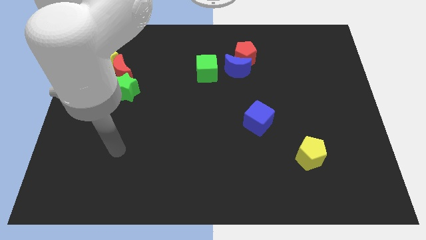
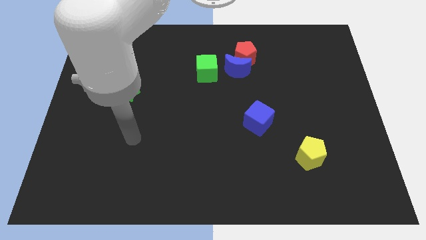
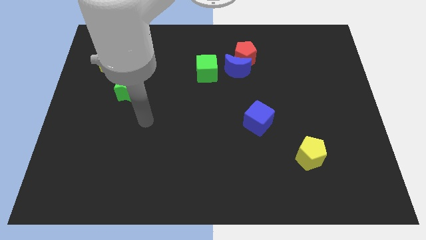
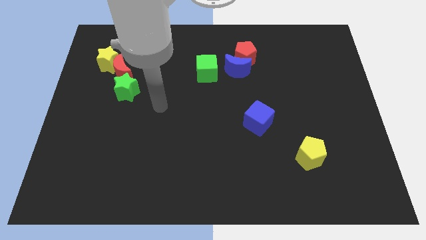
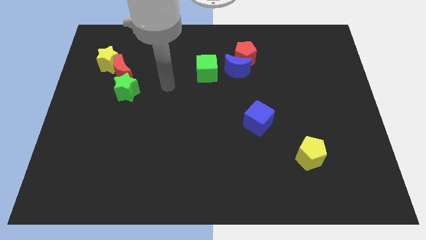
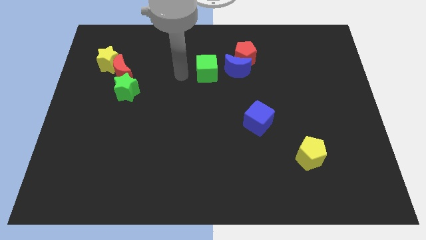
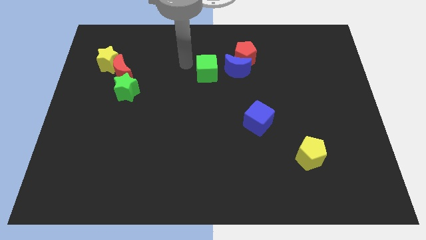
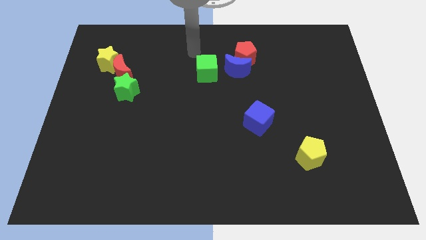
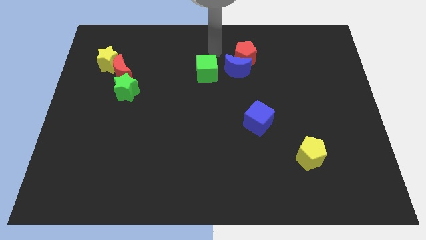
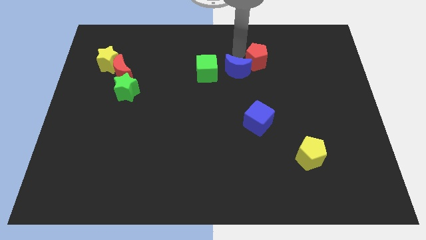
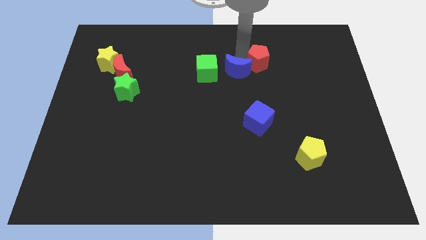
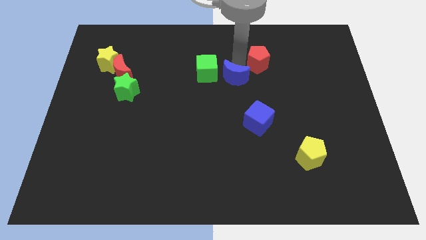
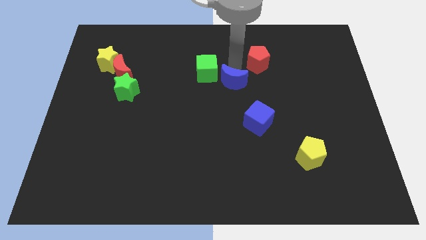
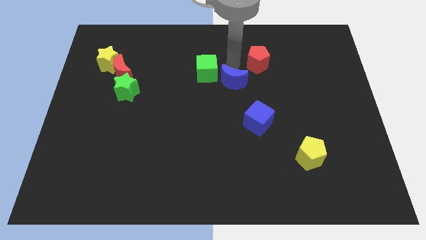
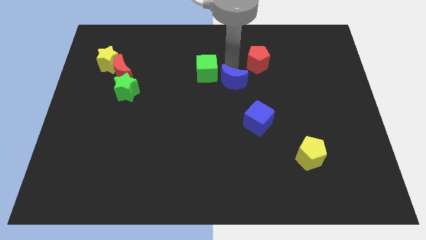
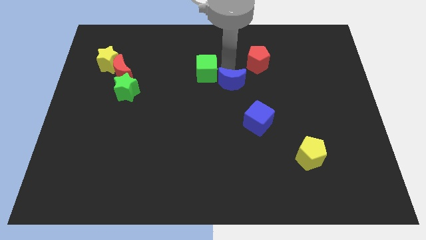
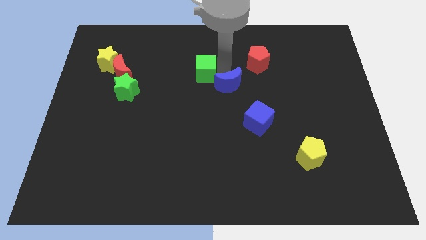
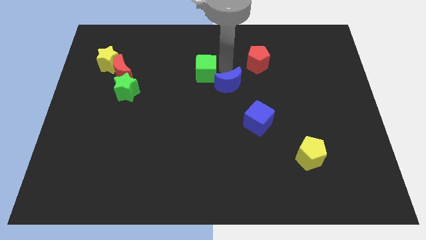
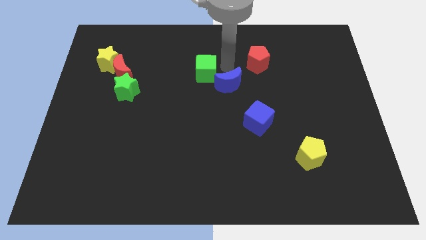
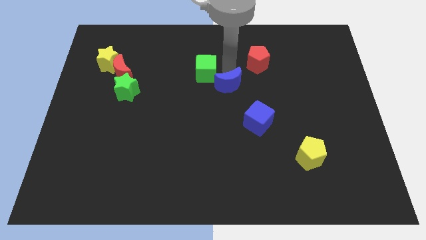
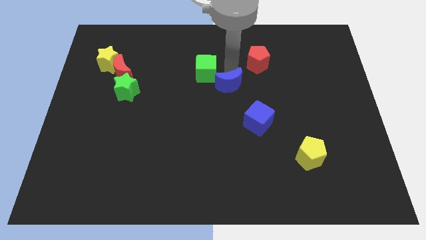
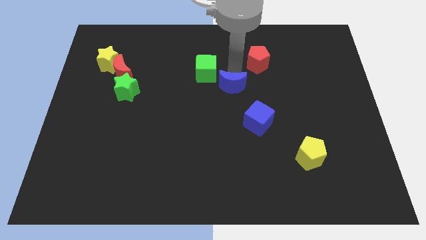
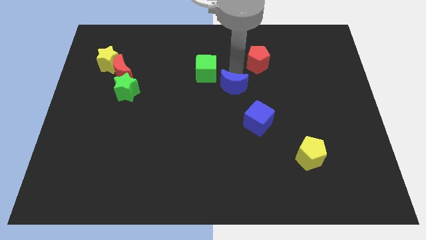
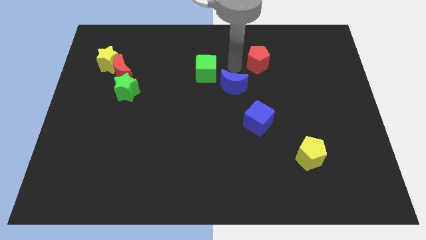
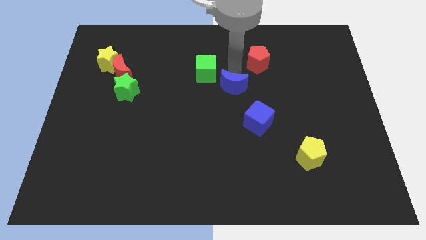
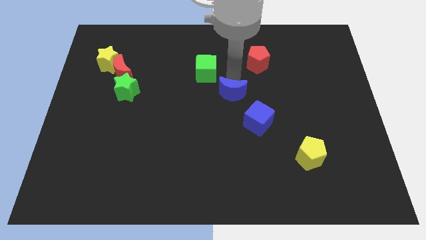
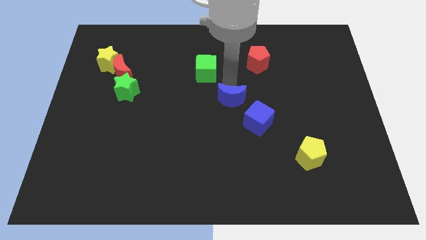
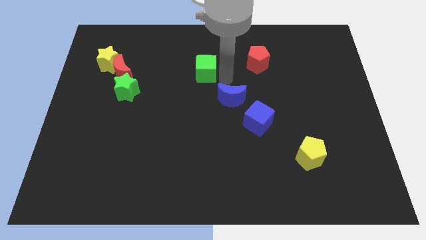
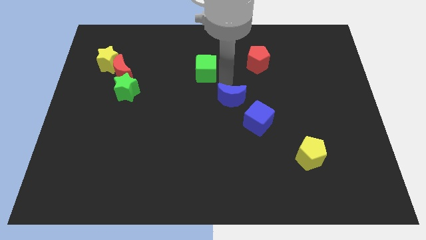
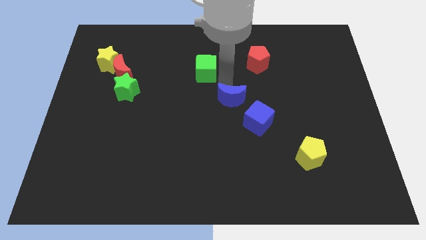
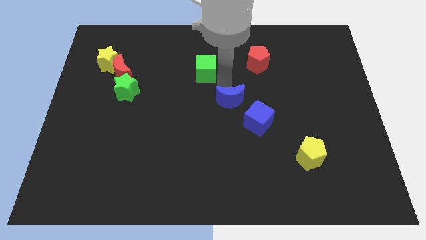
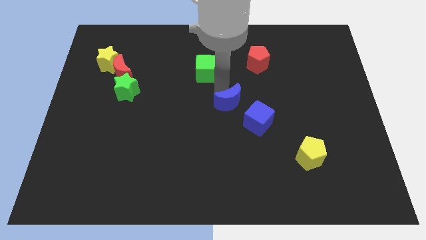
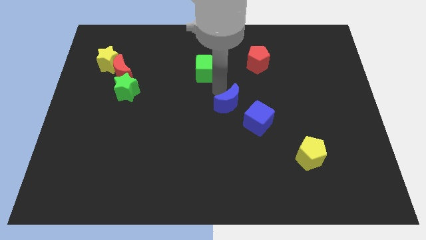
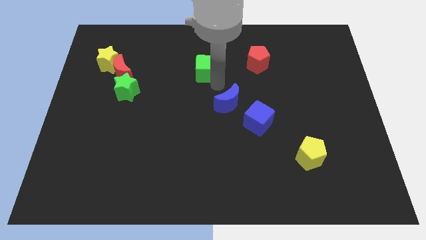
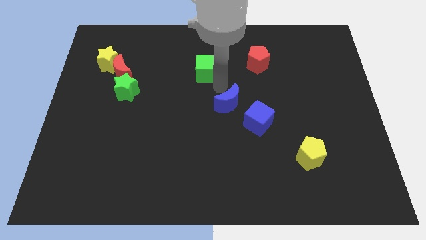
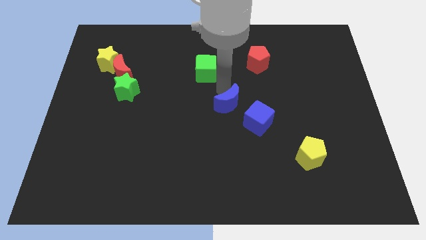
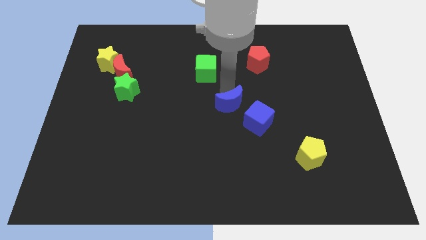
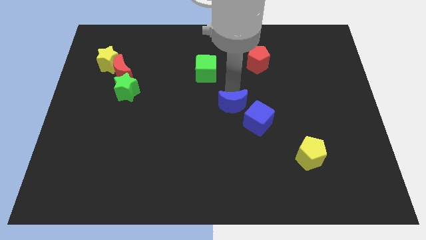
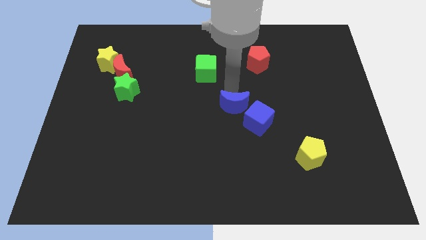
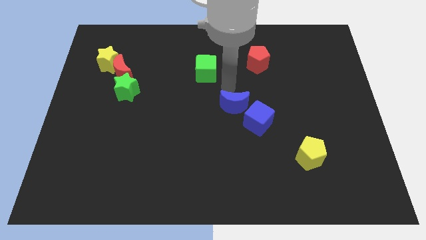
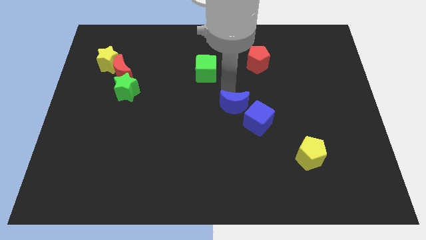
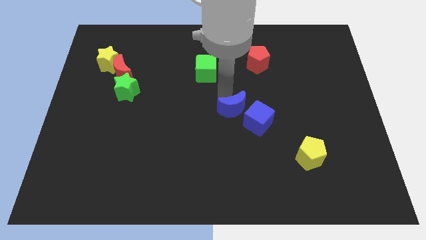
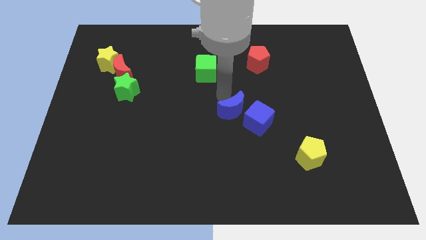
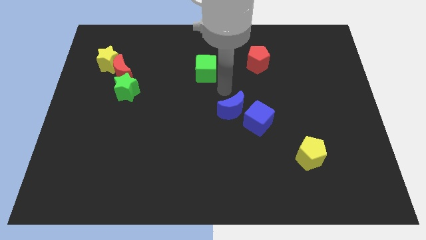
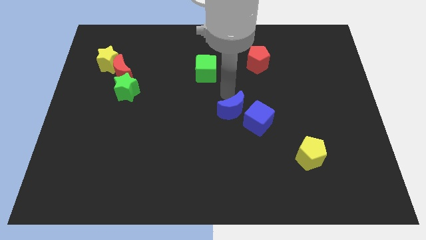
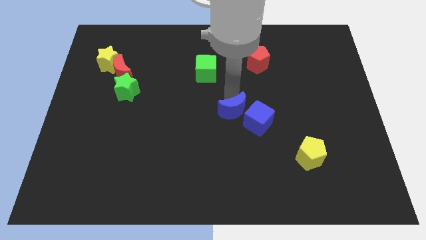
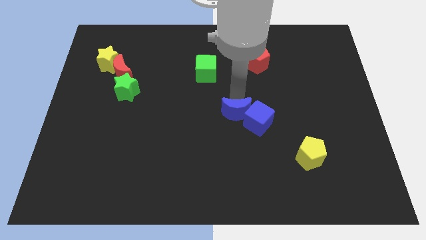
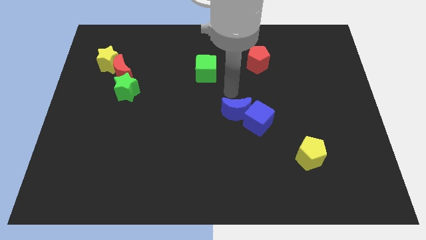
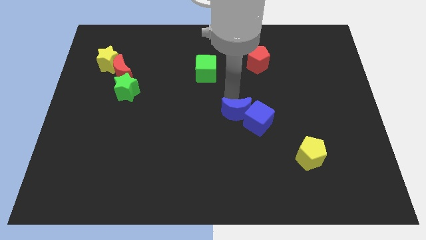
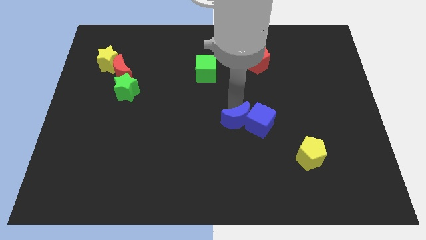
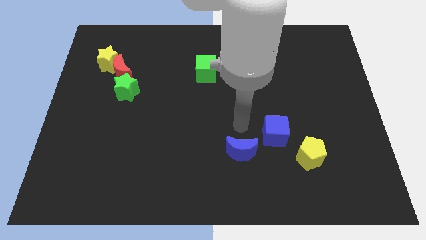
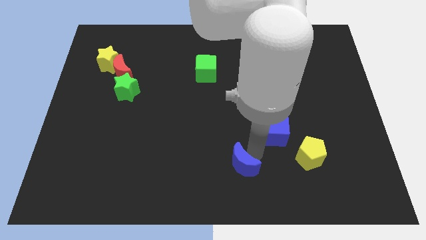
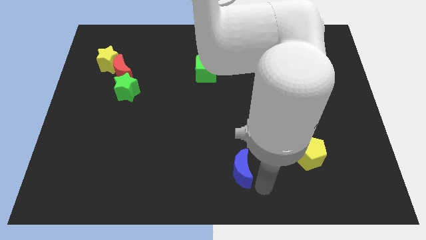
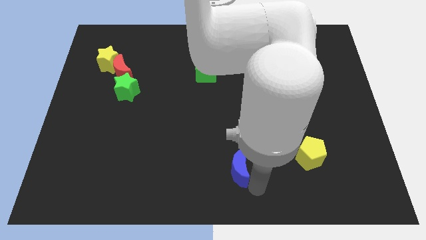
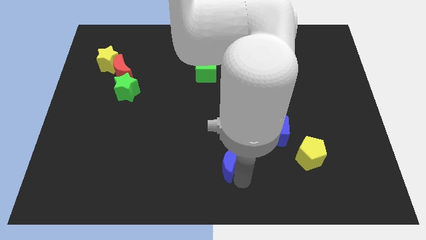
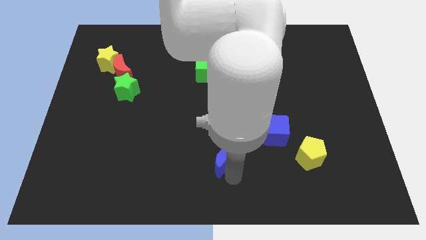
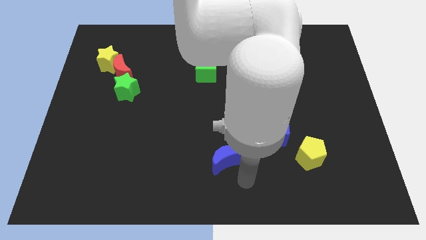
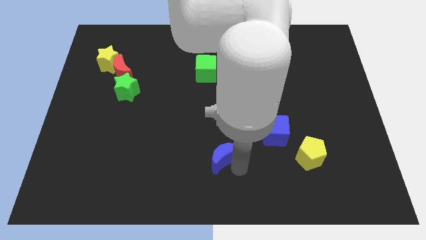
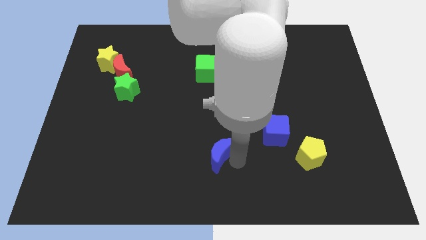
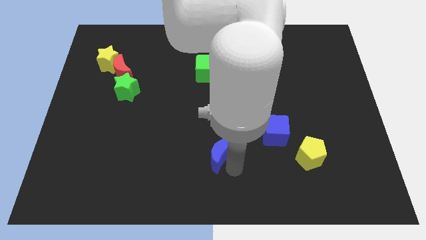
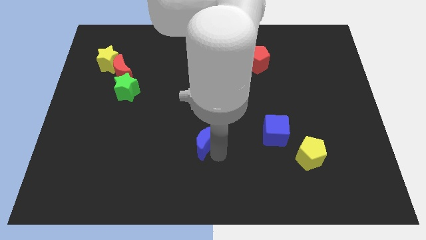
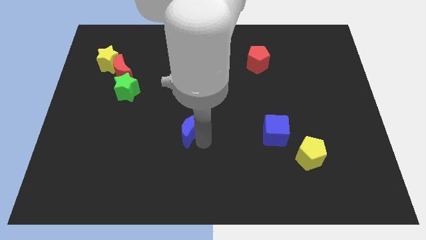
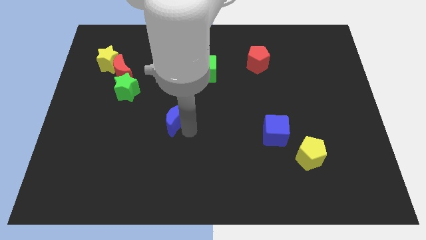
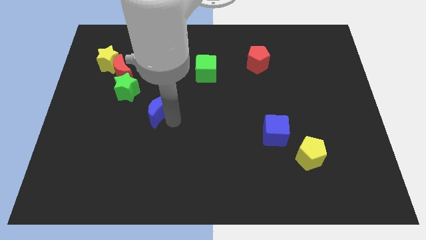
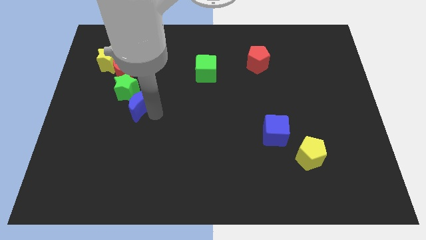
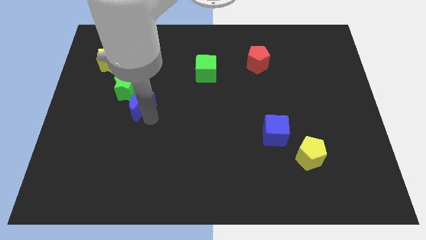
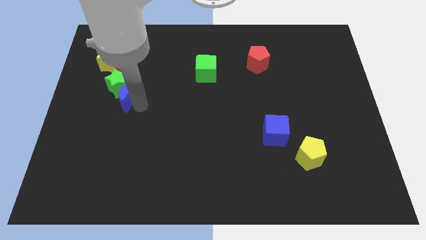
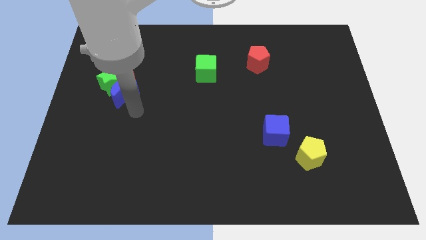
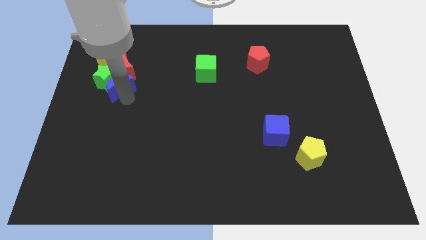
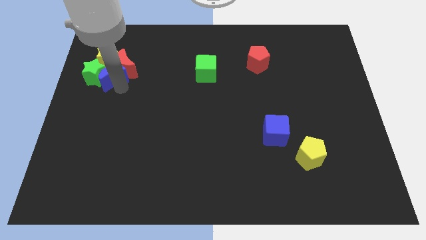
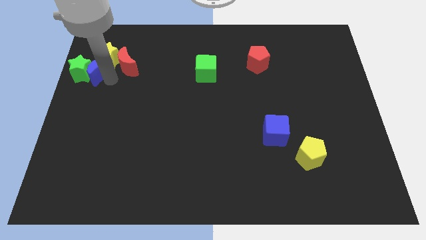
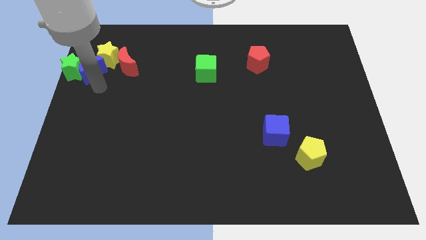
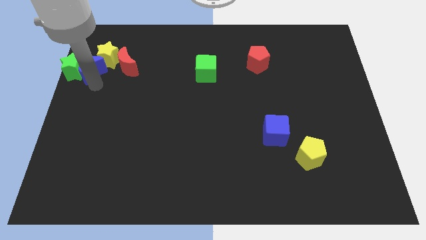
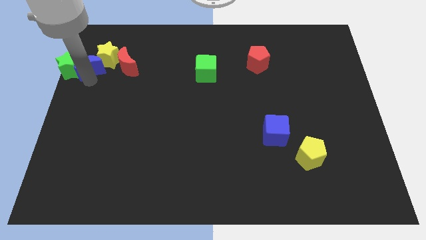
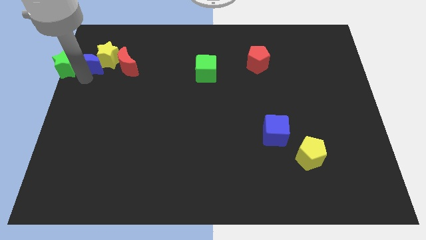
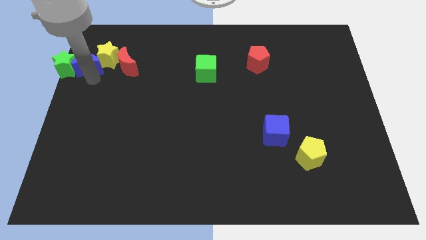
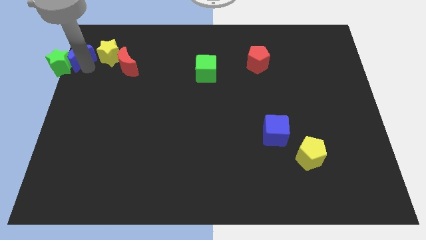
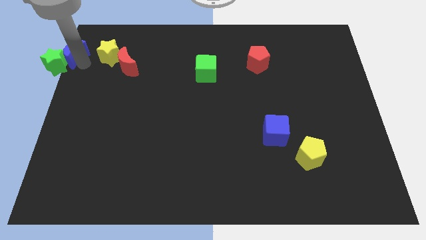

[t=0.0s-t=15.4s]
put the blue moon to the top left
